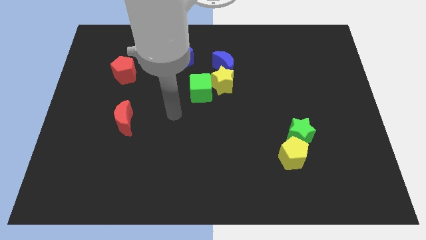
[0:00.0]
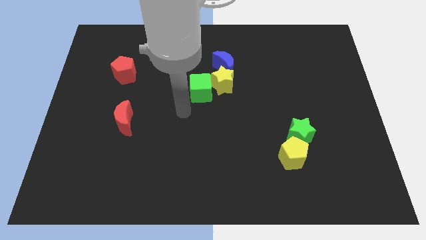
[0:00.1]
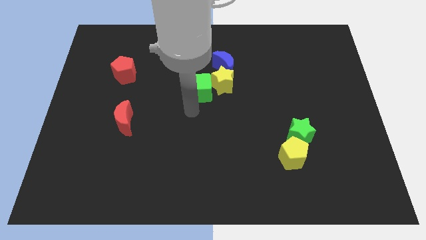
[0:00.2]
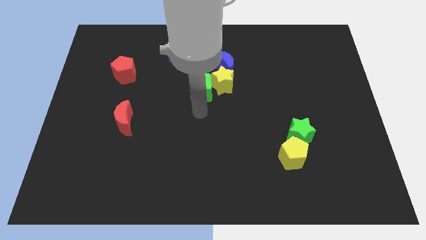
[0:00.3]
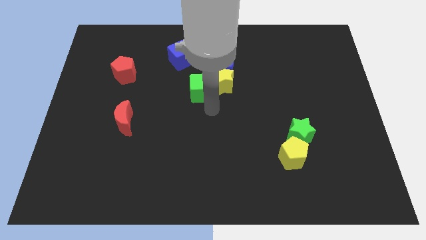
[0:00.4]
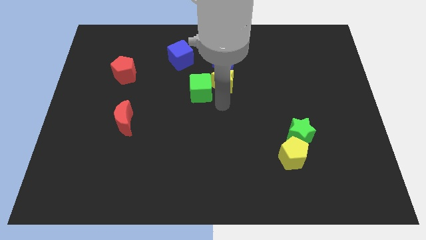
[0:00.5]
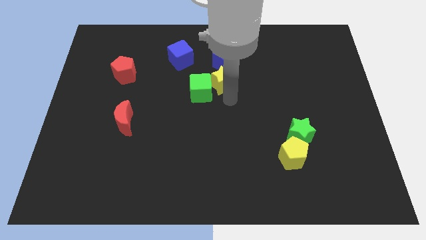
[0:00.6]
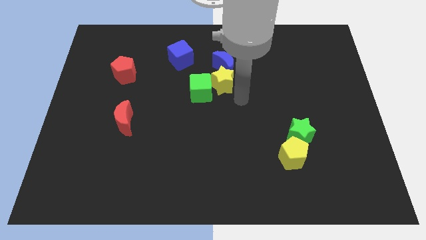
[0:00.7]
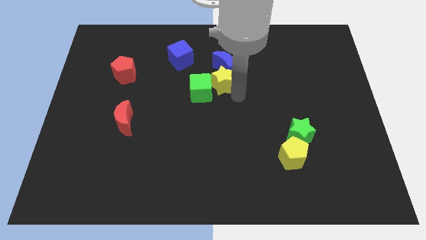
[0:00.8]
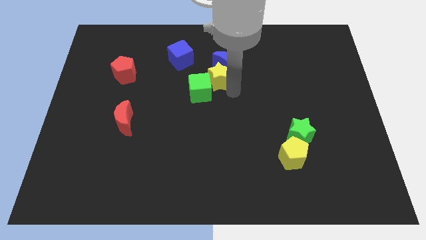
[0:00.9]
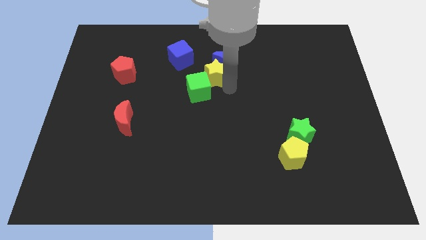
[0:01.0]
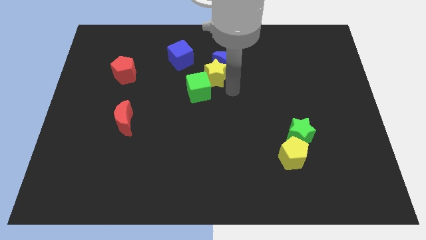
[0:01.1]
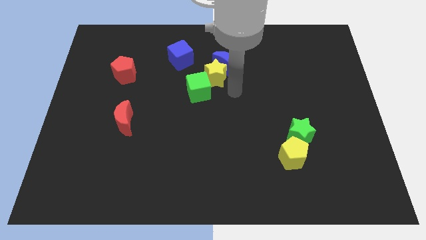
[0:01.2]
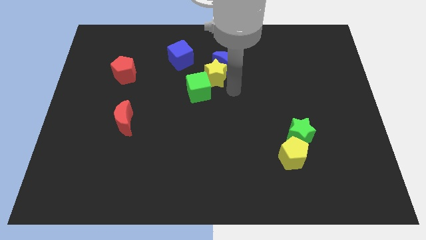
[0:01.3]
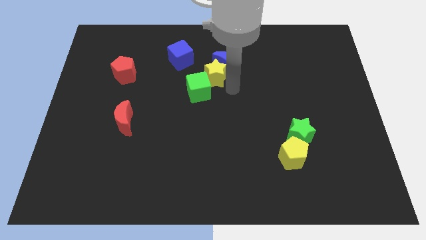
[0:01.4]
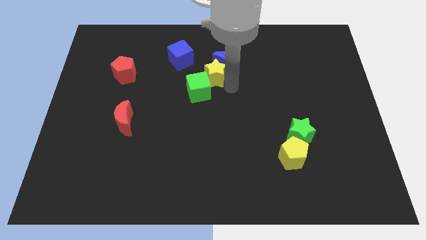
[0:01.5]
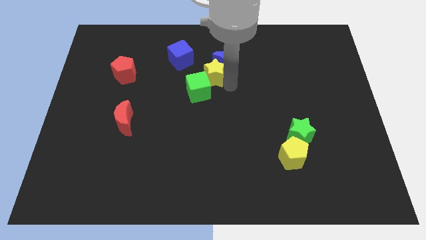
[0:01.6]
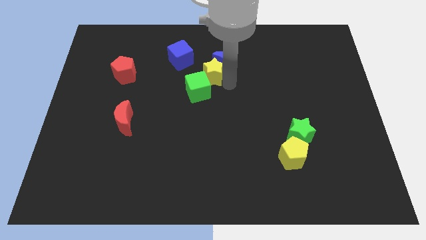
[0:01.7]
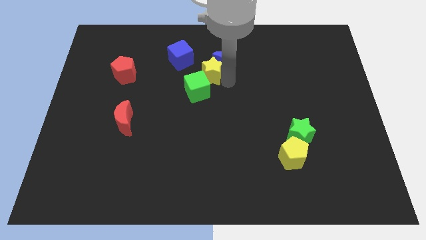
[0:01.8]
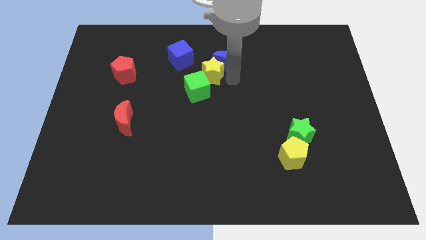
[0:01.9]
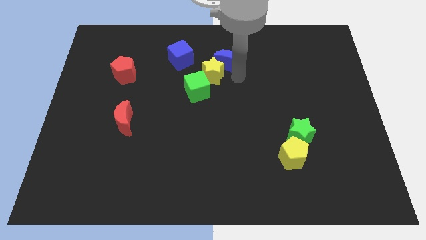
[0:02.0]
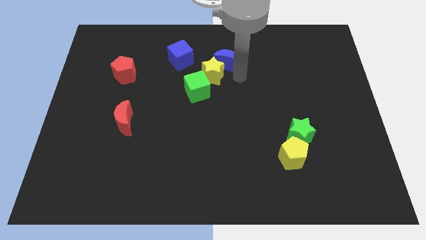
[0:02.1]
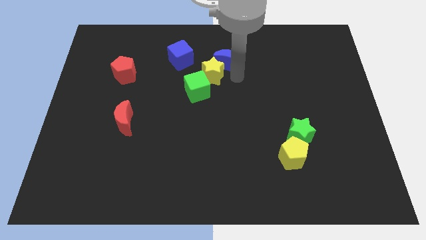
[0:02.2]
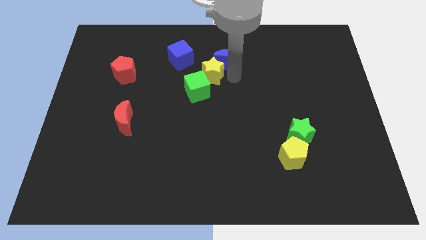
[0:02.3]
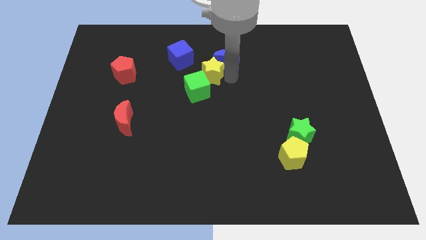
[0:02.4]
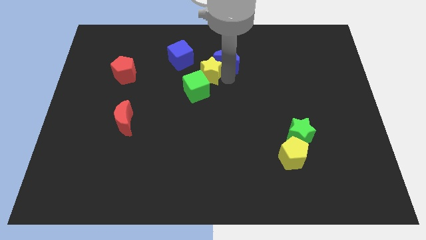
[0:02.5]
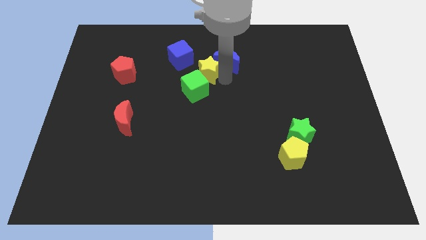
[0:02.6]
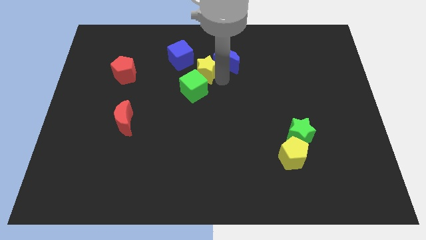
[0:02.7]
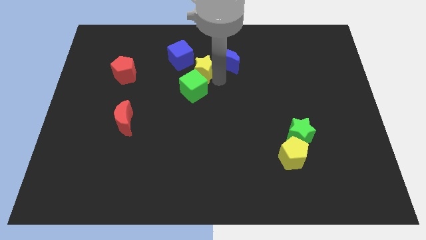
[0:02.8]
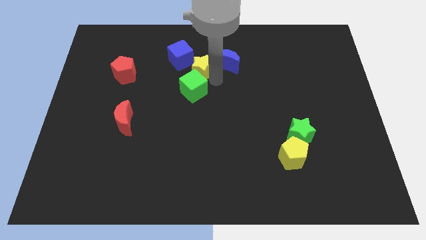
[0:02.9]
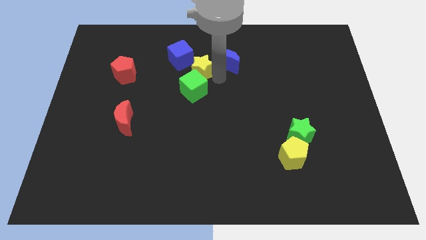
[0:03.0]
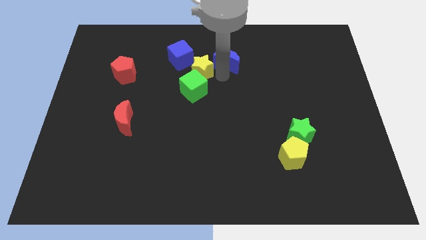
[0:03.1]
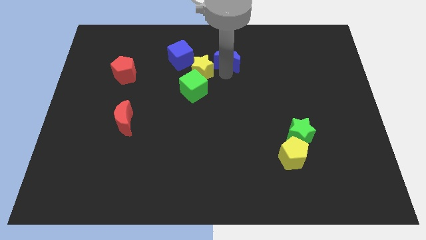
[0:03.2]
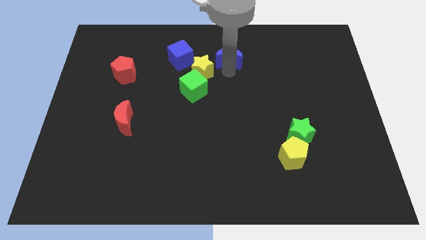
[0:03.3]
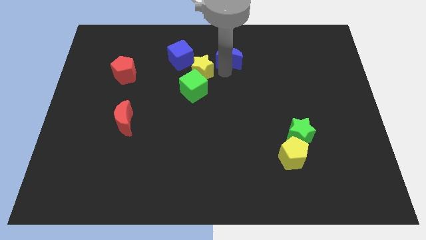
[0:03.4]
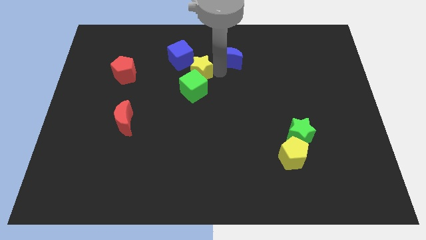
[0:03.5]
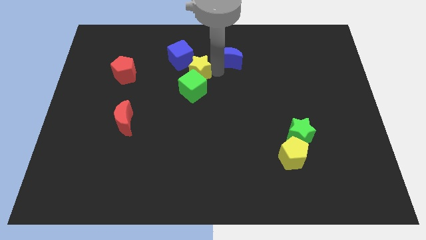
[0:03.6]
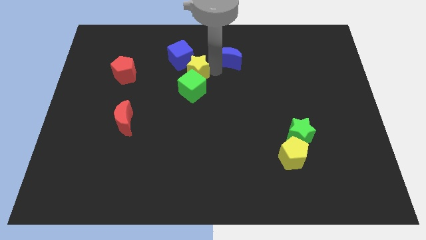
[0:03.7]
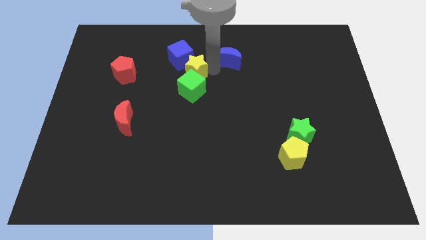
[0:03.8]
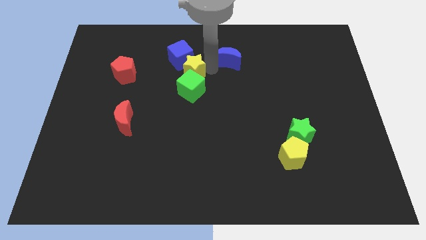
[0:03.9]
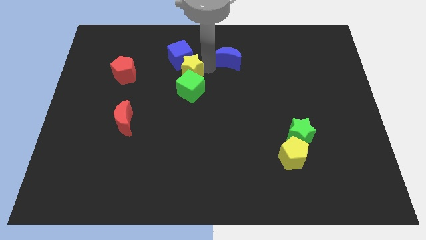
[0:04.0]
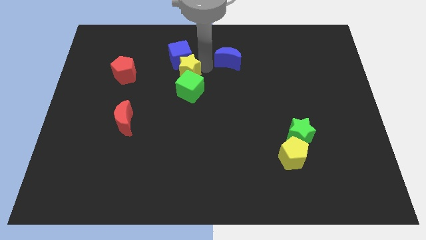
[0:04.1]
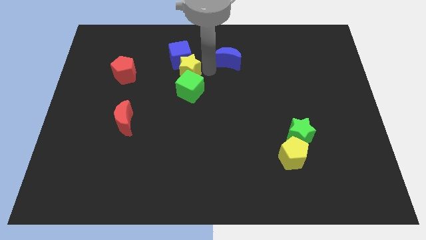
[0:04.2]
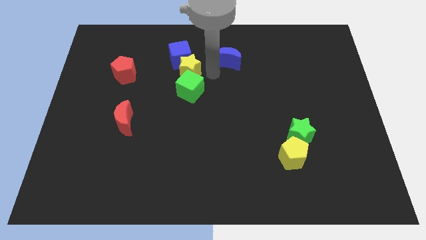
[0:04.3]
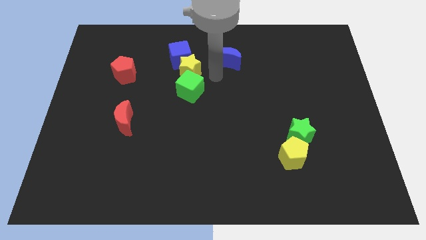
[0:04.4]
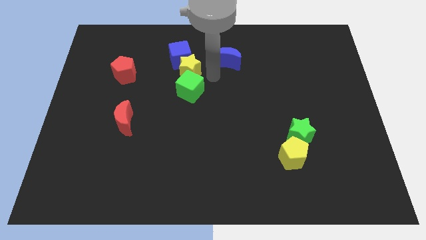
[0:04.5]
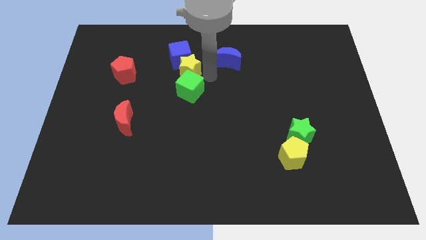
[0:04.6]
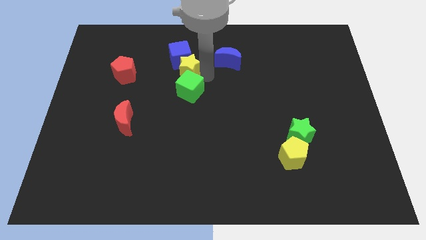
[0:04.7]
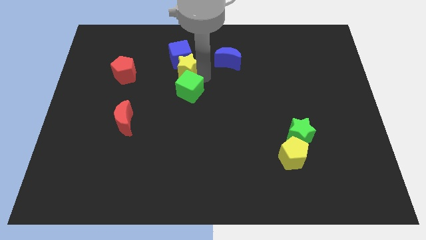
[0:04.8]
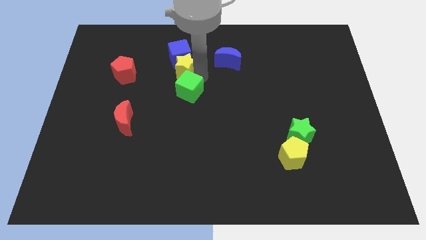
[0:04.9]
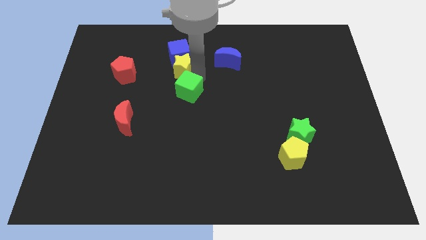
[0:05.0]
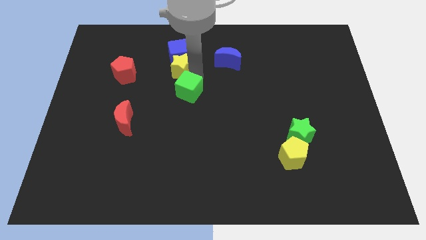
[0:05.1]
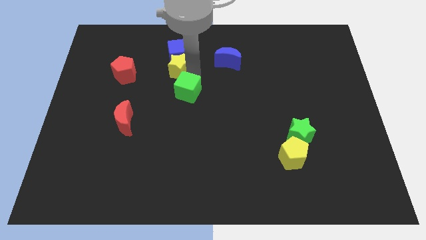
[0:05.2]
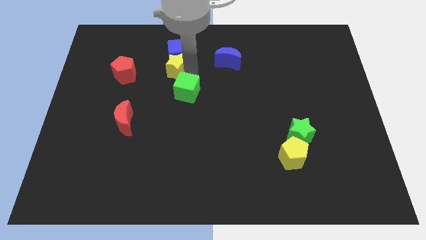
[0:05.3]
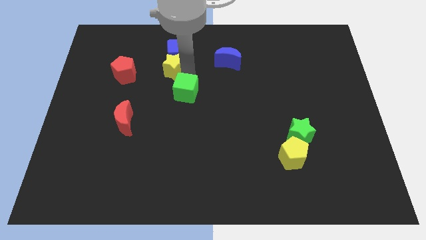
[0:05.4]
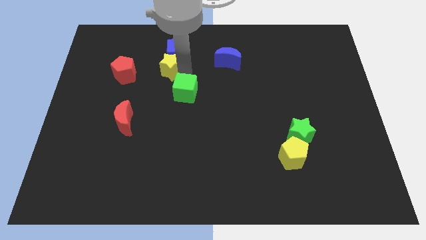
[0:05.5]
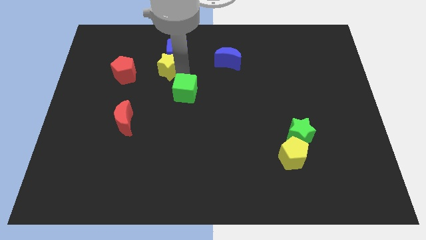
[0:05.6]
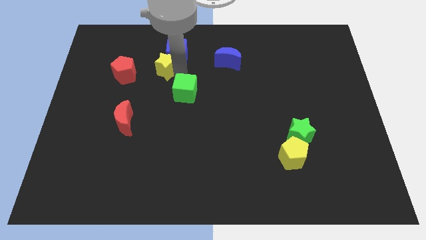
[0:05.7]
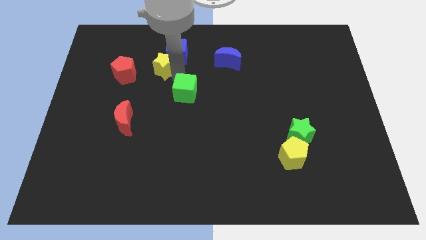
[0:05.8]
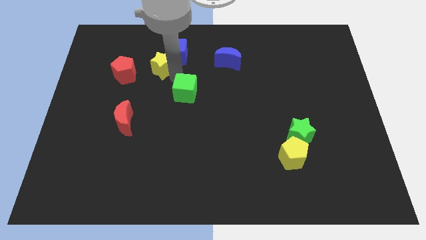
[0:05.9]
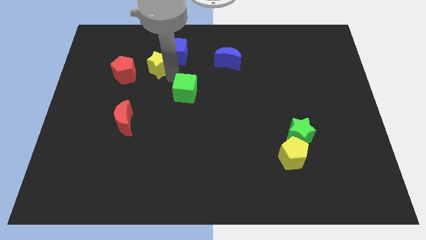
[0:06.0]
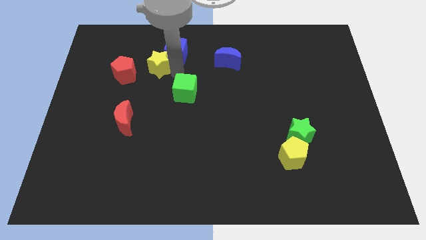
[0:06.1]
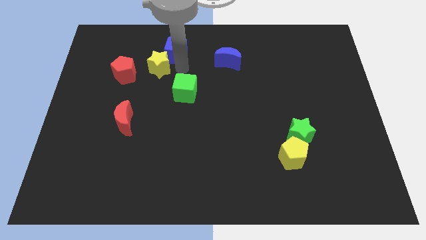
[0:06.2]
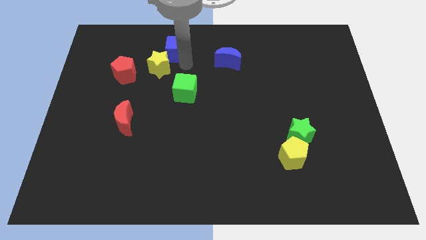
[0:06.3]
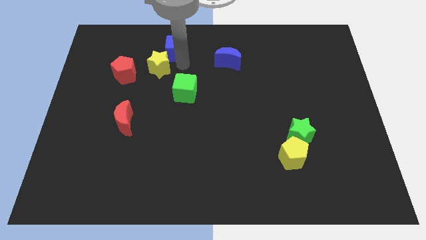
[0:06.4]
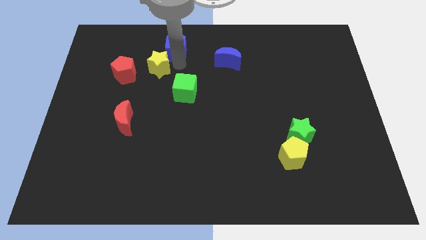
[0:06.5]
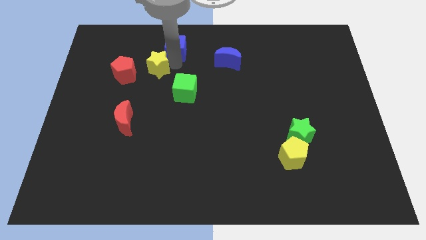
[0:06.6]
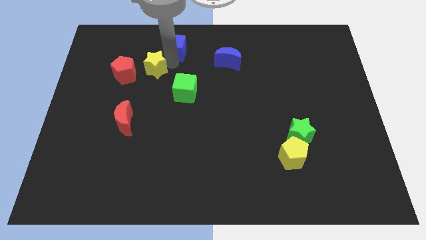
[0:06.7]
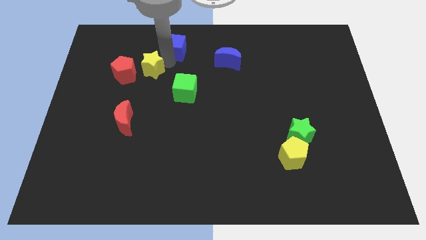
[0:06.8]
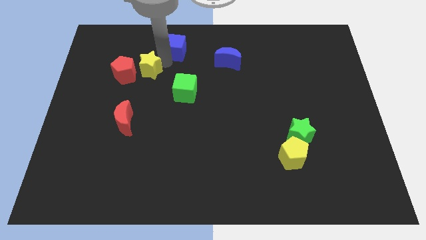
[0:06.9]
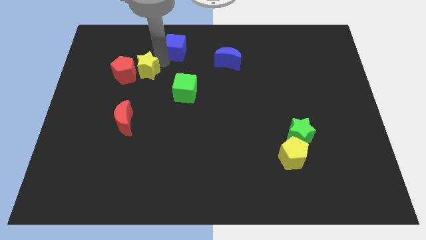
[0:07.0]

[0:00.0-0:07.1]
move the yellow star towards the red pentagon
